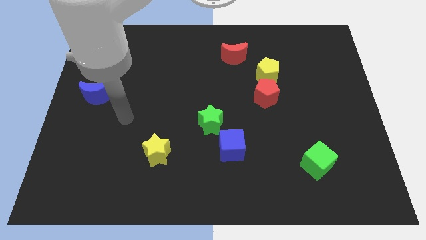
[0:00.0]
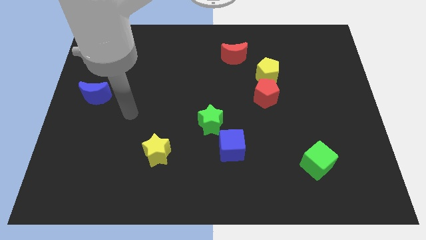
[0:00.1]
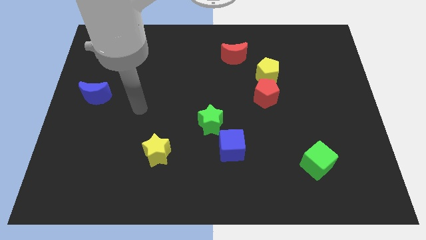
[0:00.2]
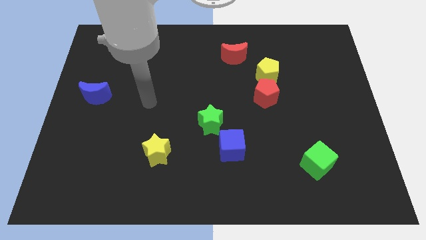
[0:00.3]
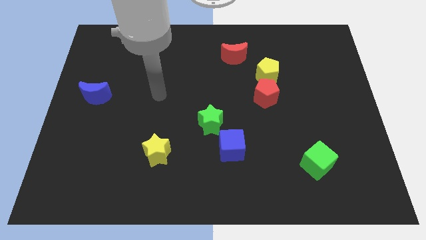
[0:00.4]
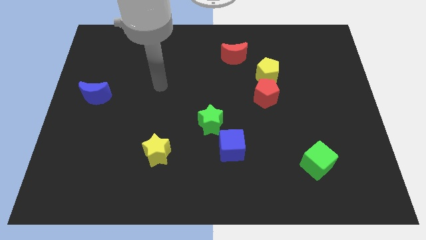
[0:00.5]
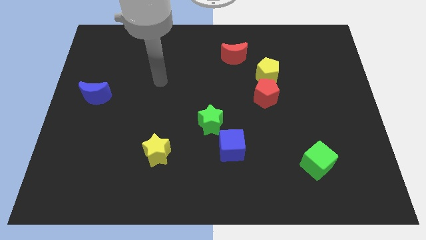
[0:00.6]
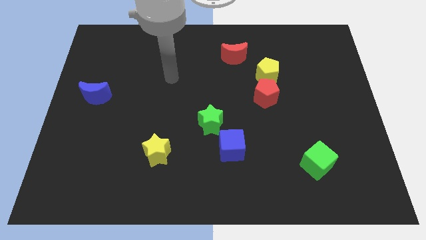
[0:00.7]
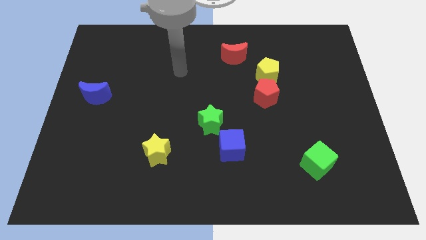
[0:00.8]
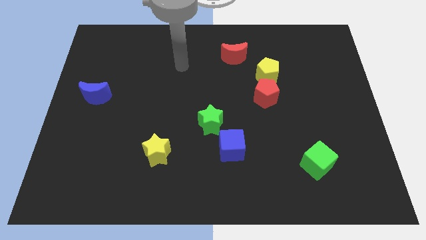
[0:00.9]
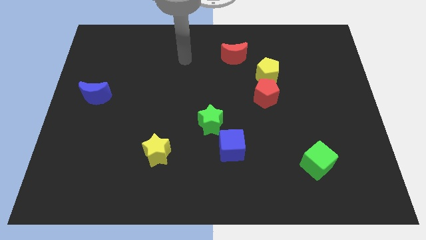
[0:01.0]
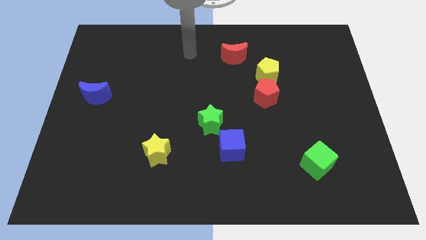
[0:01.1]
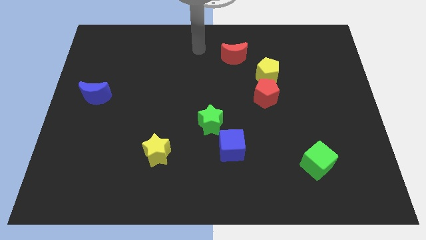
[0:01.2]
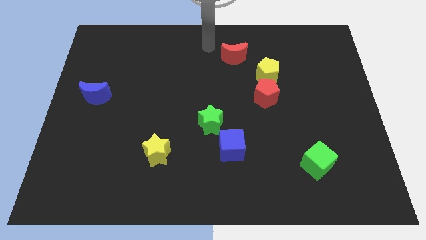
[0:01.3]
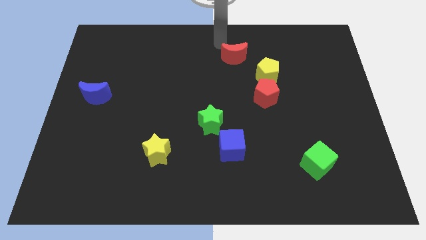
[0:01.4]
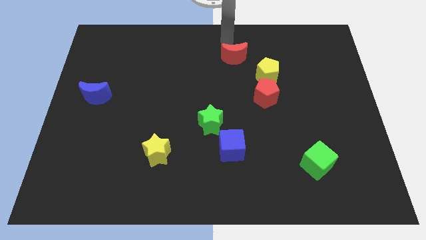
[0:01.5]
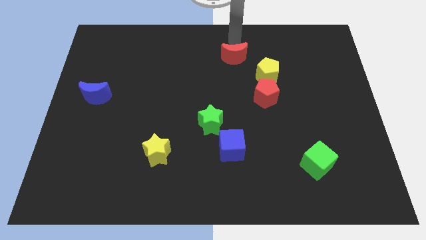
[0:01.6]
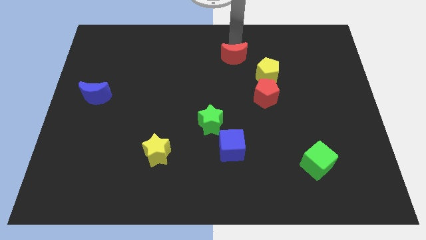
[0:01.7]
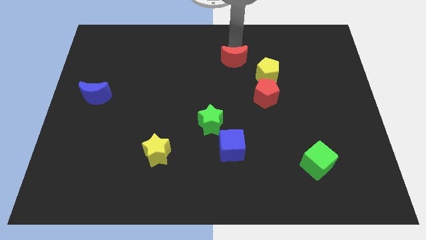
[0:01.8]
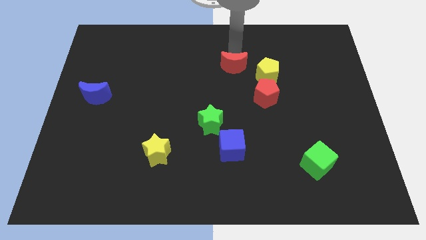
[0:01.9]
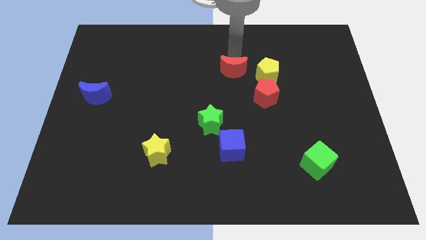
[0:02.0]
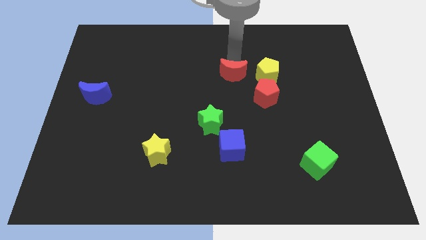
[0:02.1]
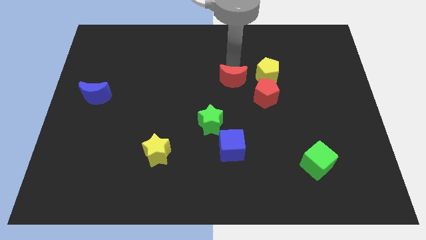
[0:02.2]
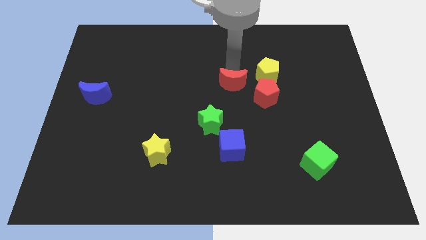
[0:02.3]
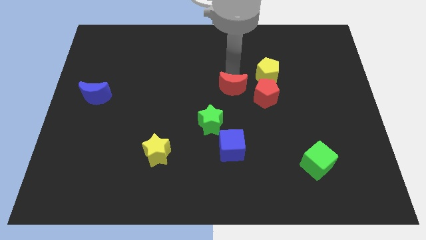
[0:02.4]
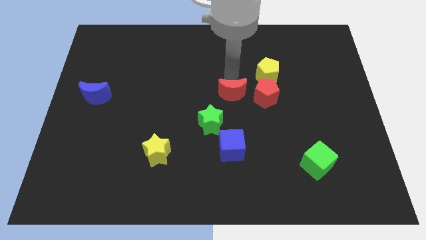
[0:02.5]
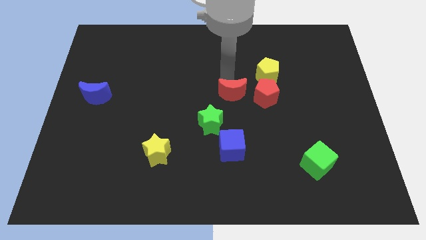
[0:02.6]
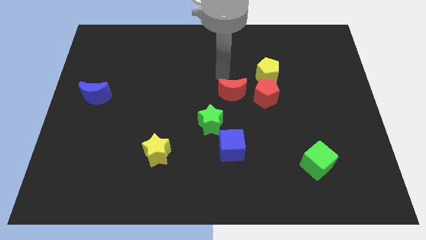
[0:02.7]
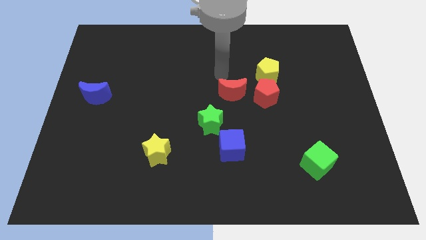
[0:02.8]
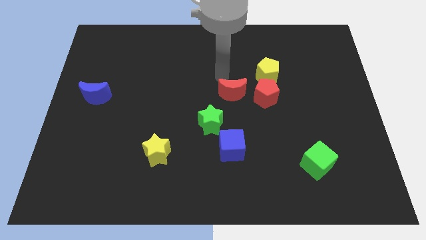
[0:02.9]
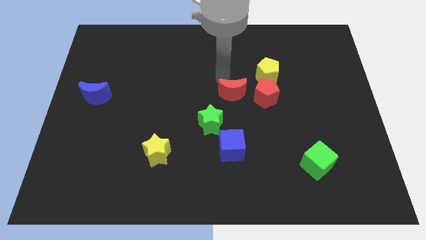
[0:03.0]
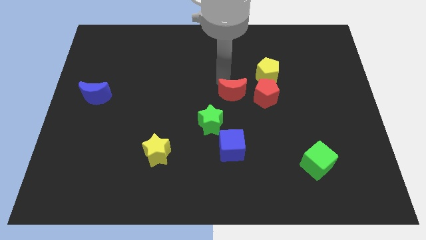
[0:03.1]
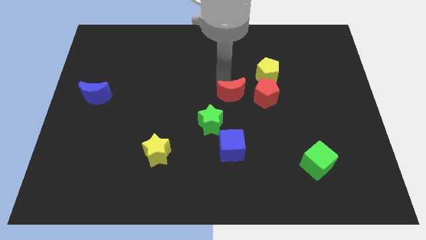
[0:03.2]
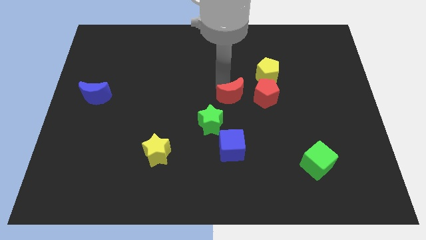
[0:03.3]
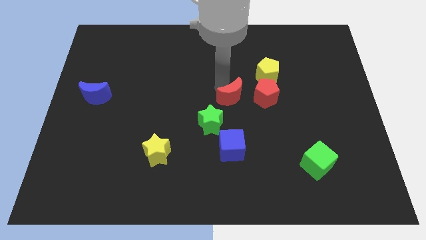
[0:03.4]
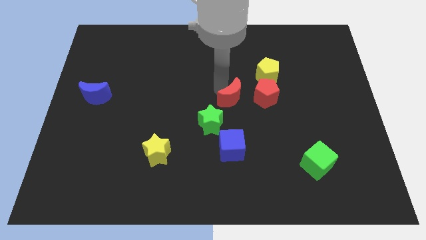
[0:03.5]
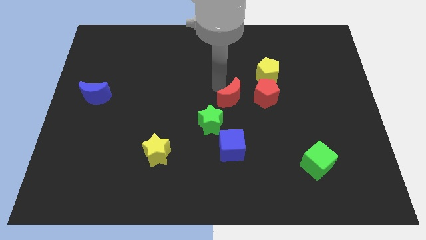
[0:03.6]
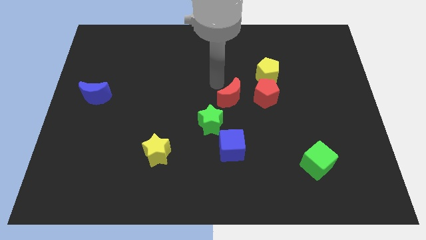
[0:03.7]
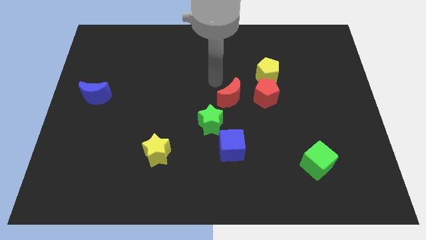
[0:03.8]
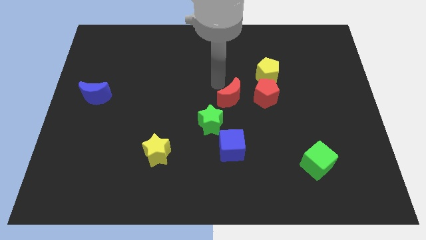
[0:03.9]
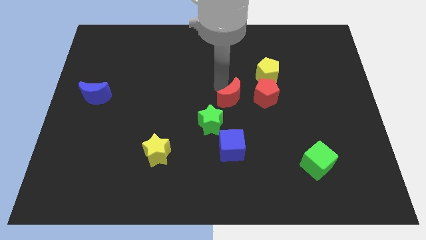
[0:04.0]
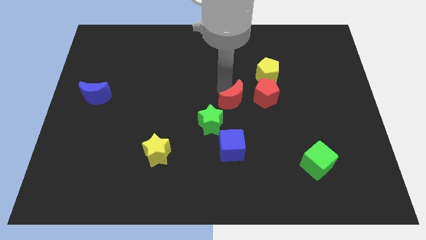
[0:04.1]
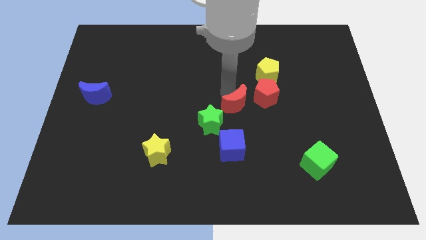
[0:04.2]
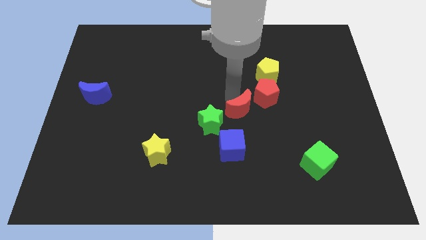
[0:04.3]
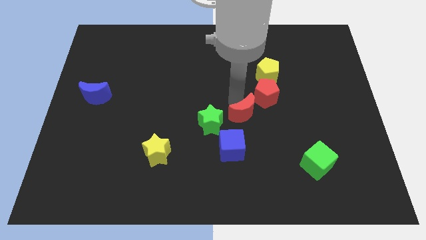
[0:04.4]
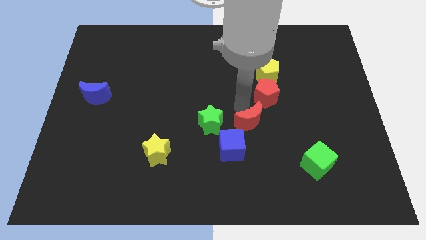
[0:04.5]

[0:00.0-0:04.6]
slide the red moon down

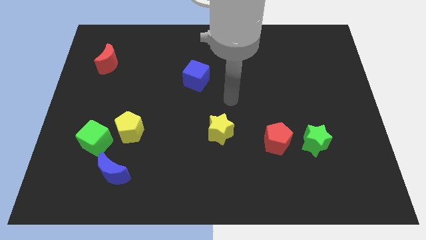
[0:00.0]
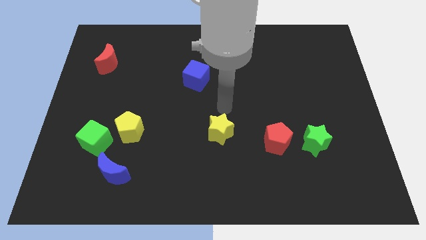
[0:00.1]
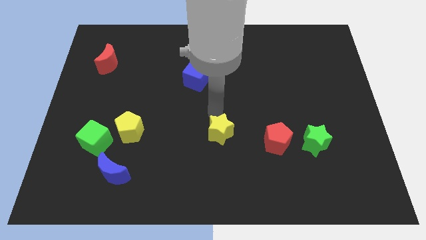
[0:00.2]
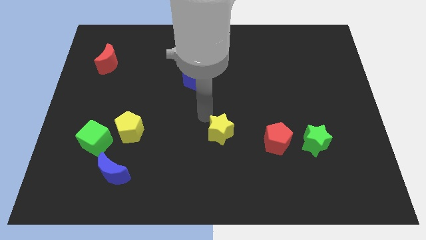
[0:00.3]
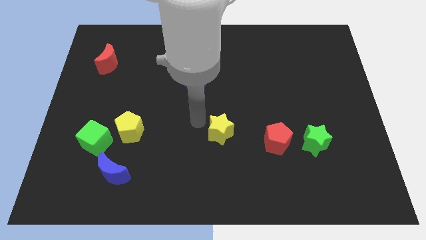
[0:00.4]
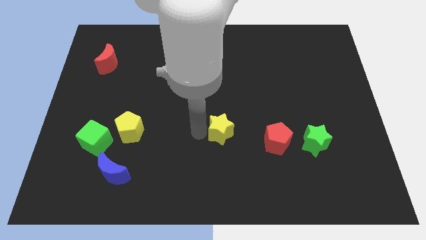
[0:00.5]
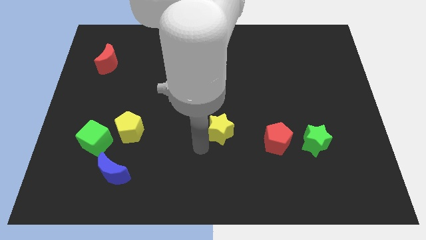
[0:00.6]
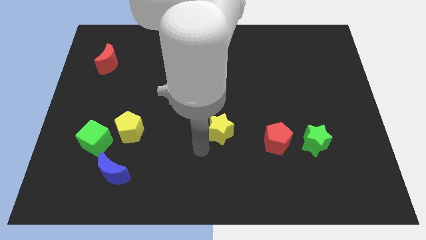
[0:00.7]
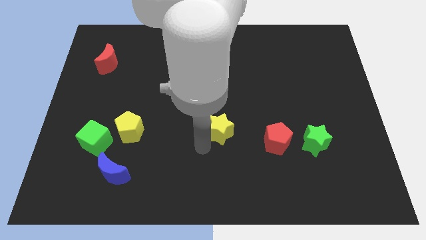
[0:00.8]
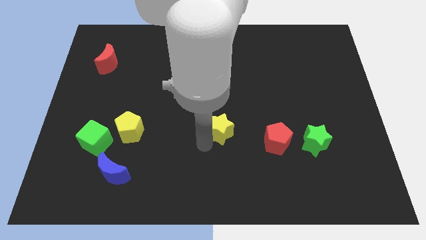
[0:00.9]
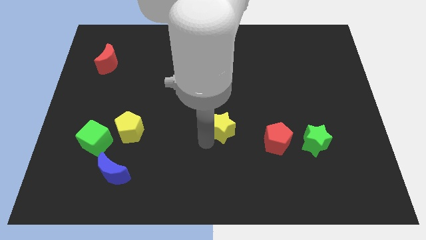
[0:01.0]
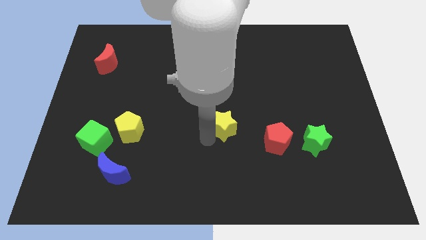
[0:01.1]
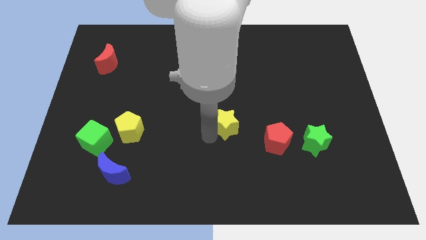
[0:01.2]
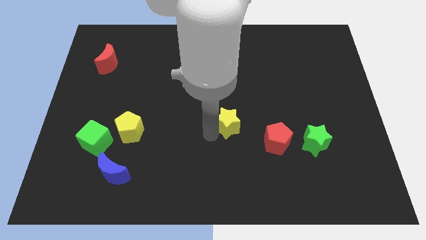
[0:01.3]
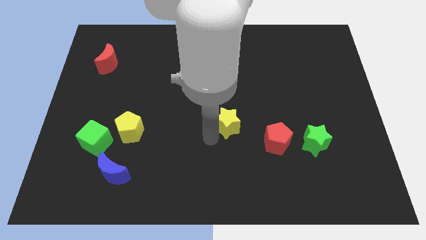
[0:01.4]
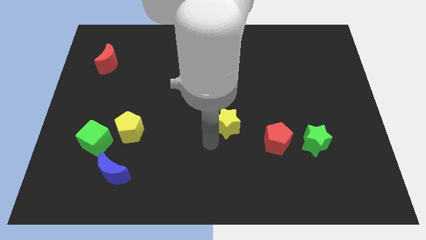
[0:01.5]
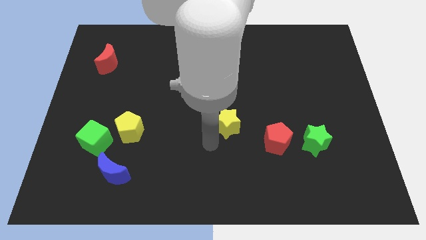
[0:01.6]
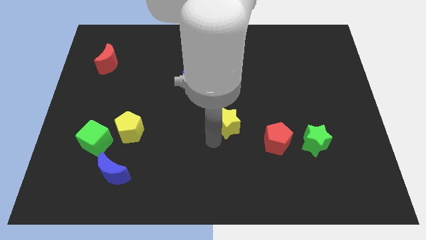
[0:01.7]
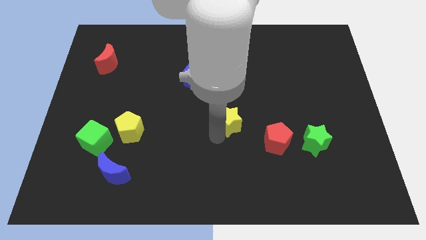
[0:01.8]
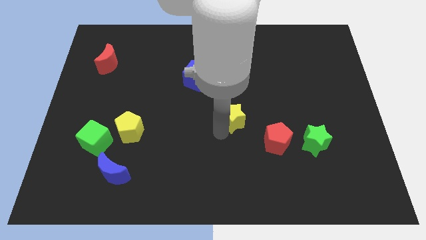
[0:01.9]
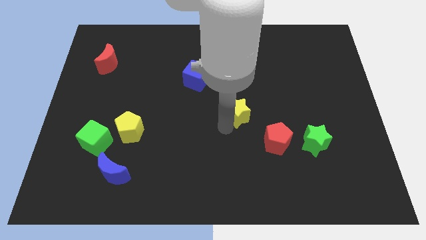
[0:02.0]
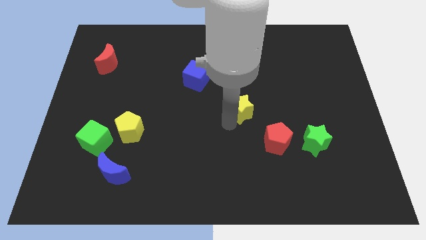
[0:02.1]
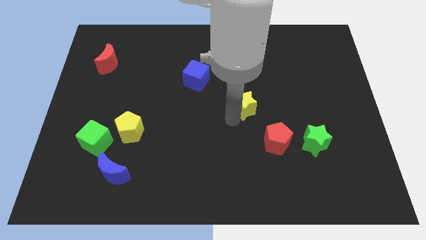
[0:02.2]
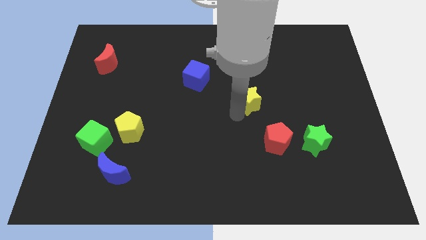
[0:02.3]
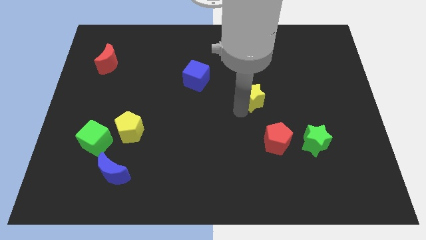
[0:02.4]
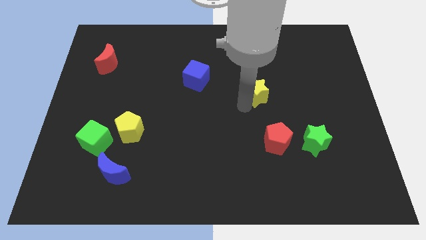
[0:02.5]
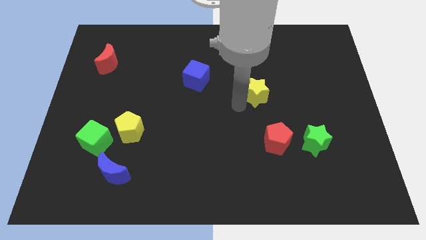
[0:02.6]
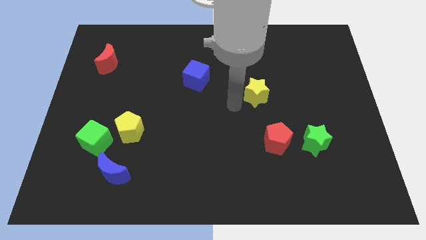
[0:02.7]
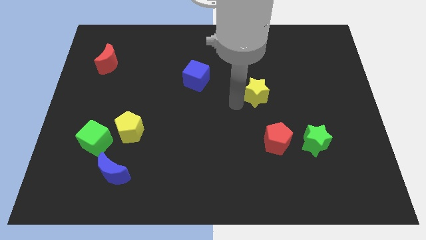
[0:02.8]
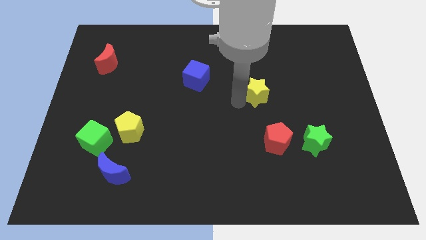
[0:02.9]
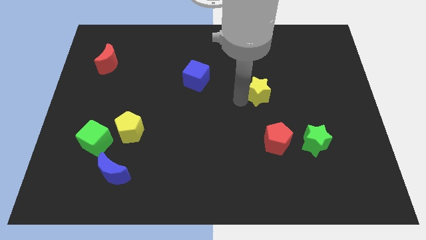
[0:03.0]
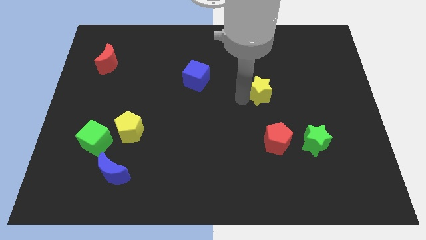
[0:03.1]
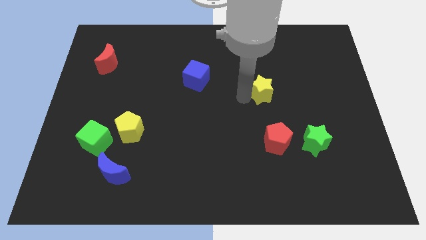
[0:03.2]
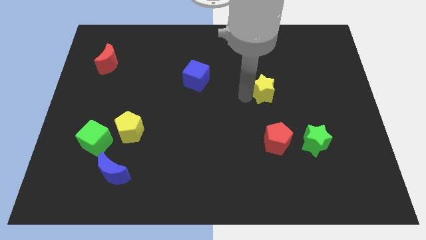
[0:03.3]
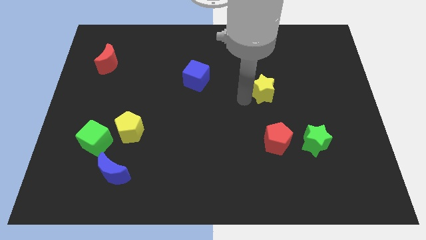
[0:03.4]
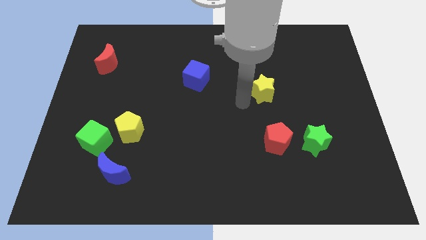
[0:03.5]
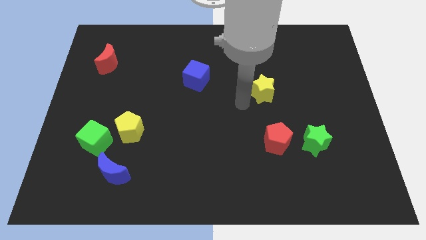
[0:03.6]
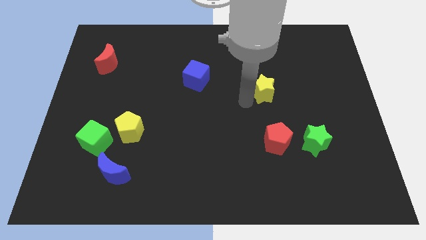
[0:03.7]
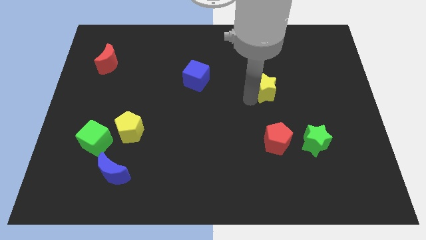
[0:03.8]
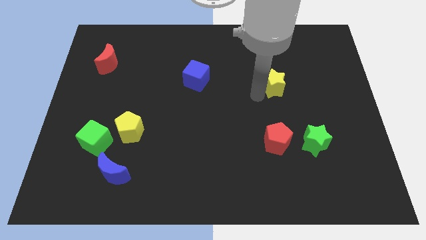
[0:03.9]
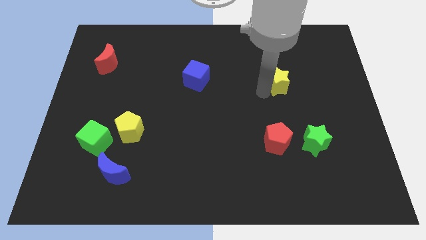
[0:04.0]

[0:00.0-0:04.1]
move the yellow star up and then right
